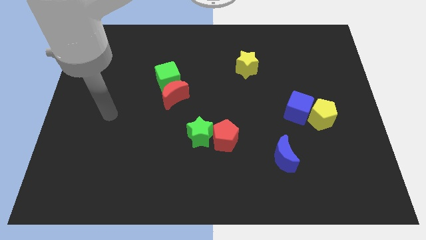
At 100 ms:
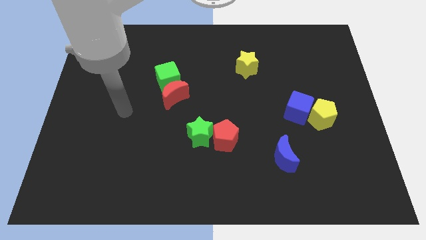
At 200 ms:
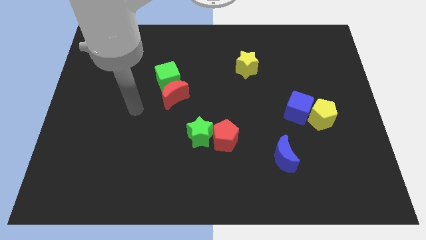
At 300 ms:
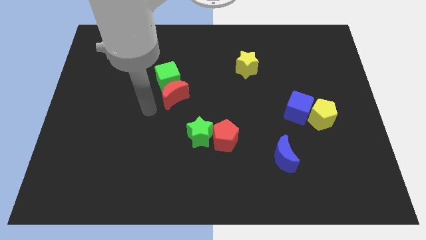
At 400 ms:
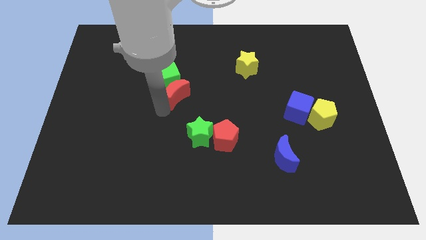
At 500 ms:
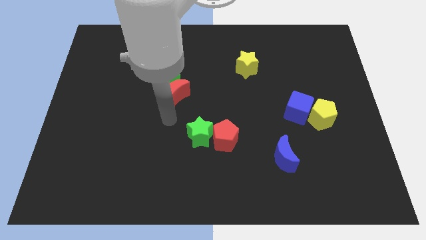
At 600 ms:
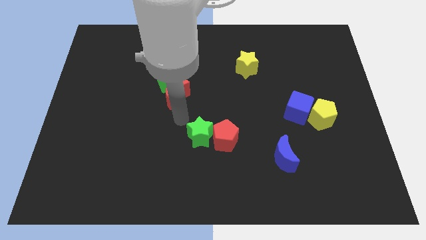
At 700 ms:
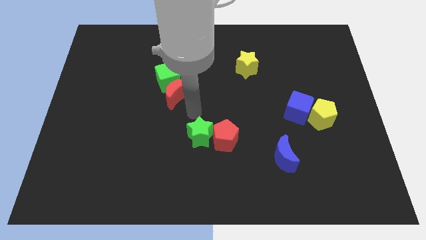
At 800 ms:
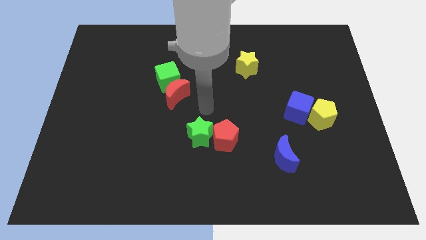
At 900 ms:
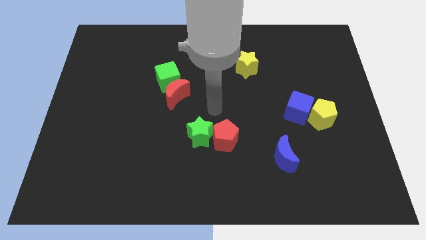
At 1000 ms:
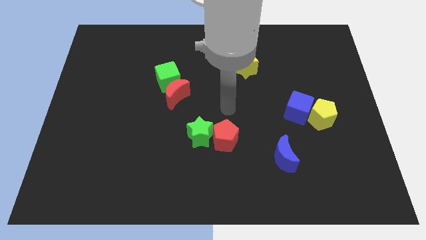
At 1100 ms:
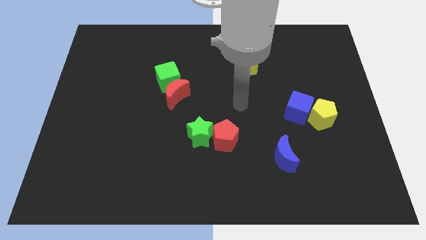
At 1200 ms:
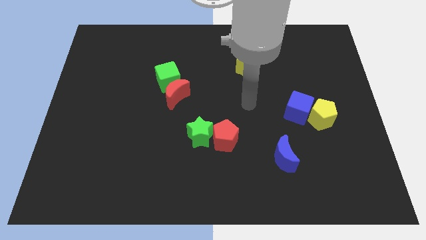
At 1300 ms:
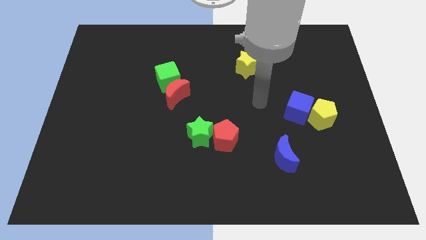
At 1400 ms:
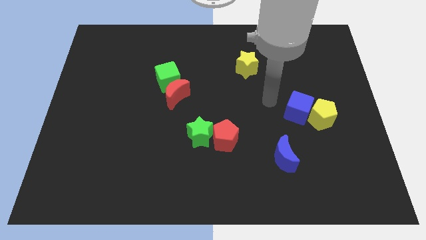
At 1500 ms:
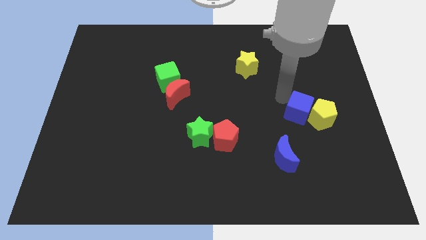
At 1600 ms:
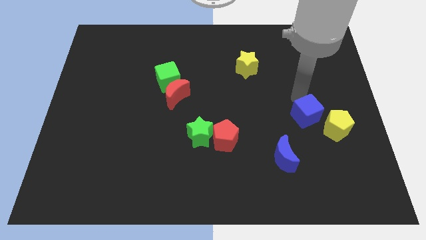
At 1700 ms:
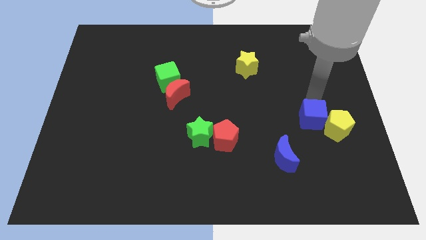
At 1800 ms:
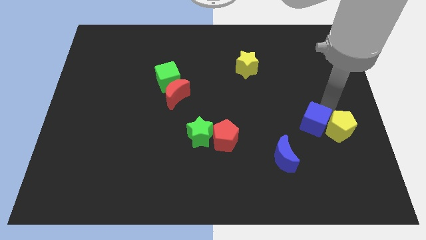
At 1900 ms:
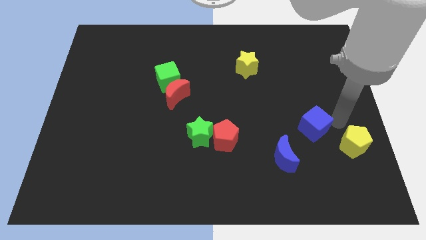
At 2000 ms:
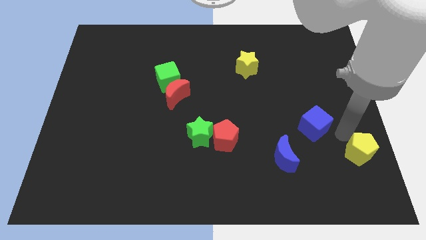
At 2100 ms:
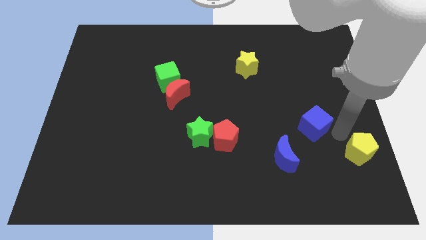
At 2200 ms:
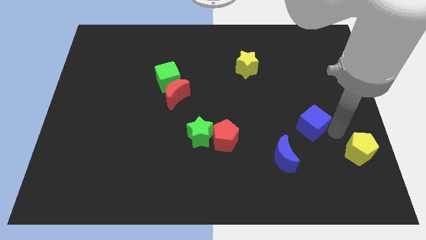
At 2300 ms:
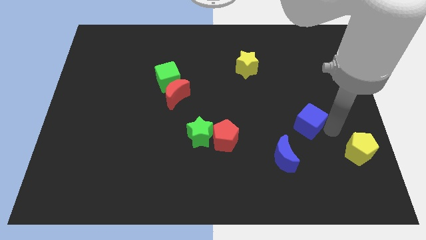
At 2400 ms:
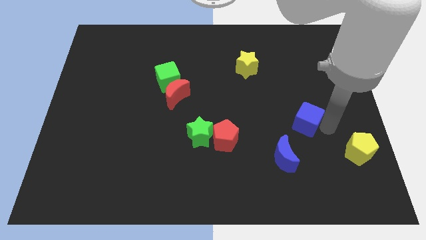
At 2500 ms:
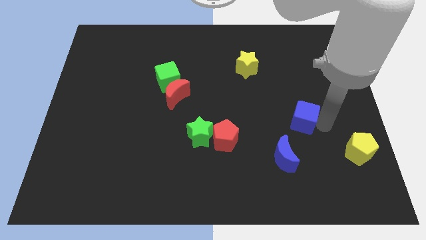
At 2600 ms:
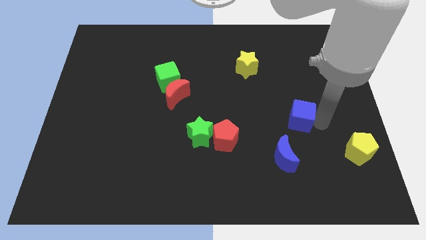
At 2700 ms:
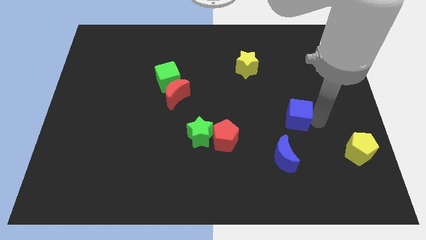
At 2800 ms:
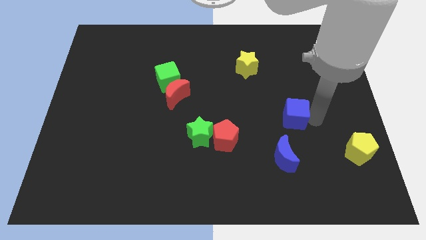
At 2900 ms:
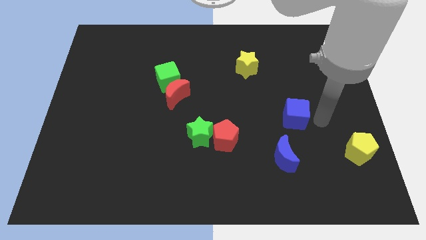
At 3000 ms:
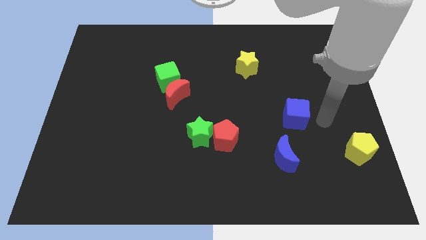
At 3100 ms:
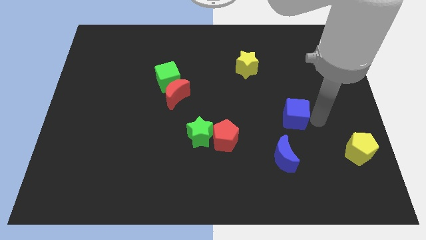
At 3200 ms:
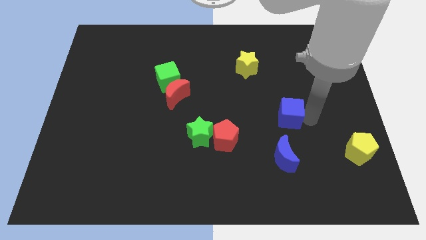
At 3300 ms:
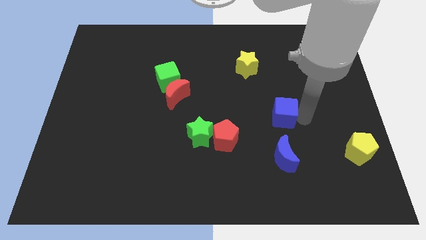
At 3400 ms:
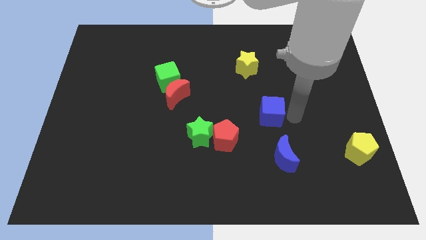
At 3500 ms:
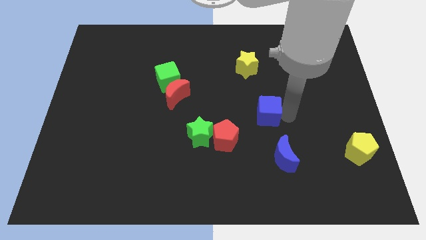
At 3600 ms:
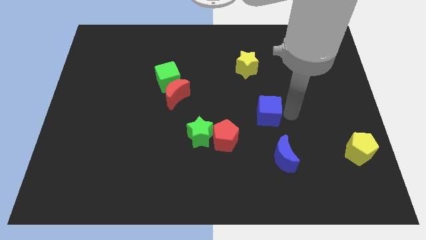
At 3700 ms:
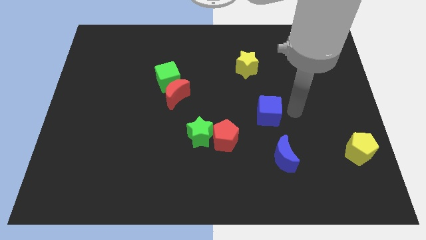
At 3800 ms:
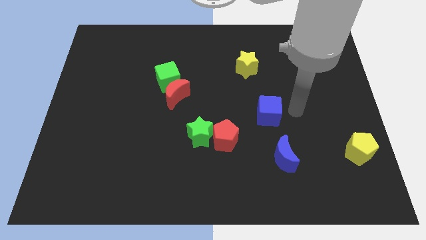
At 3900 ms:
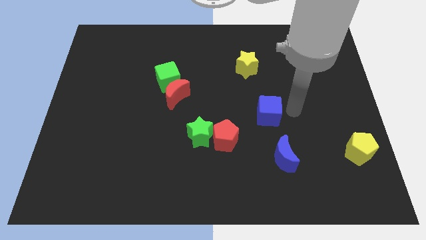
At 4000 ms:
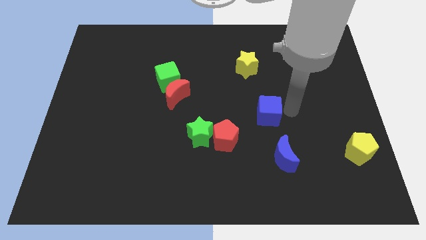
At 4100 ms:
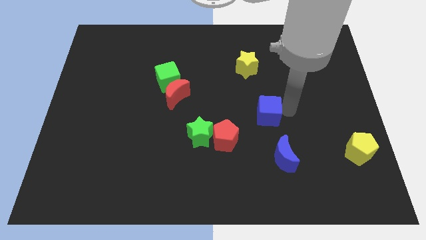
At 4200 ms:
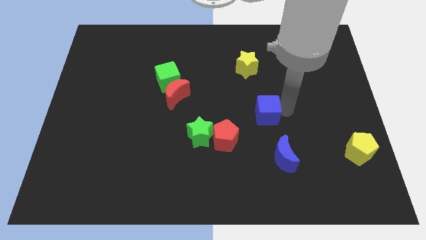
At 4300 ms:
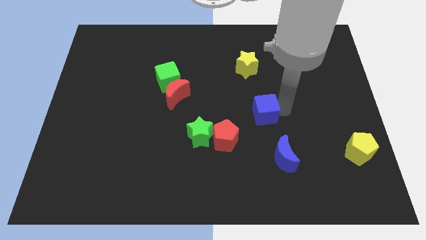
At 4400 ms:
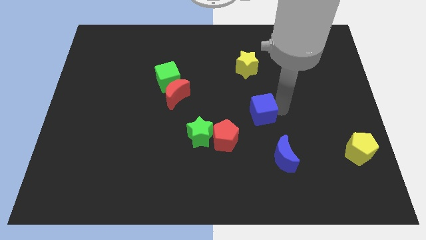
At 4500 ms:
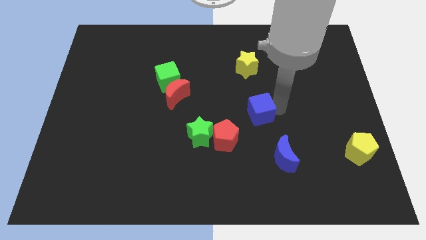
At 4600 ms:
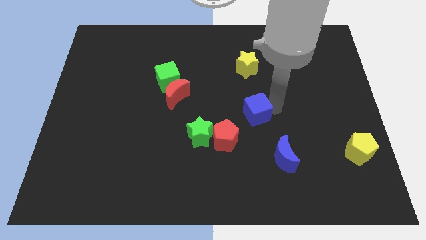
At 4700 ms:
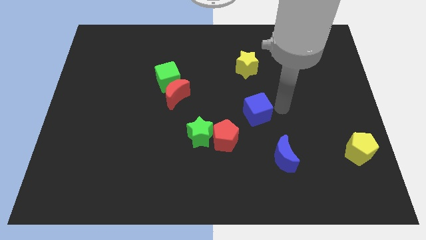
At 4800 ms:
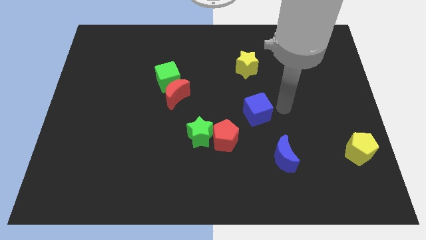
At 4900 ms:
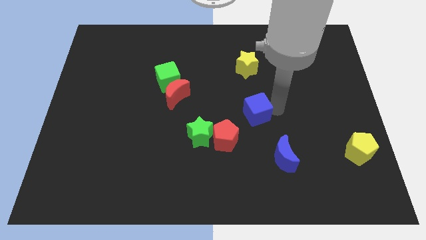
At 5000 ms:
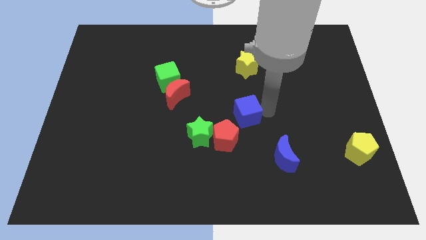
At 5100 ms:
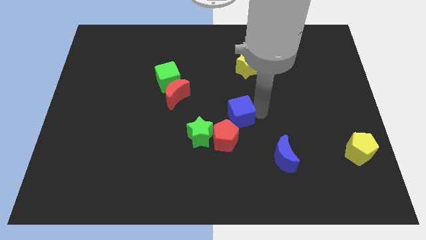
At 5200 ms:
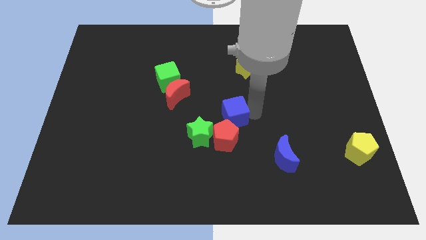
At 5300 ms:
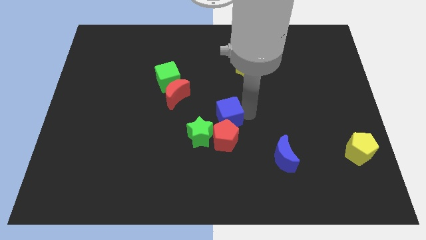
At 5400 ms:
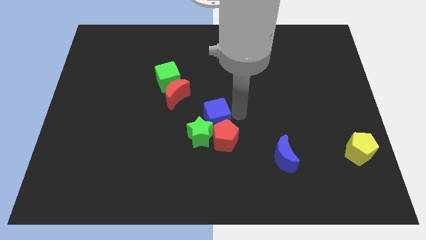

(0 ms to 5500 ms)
put the blue cube close to the green star

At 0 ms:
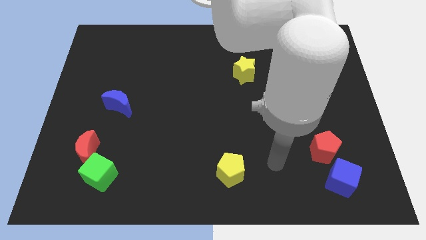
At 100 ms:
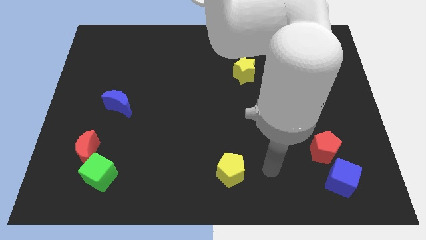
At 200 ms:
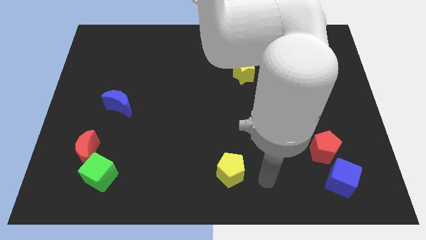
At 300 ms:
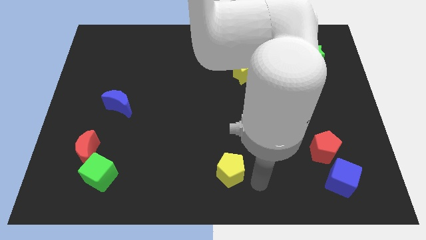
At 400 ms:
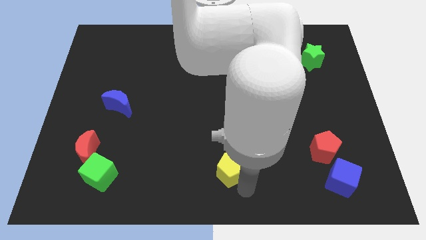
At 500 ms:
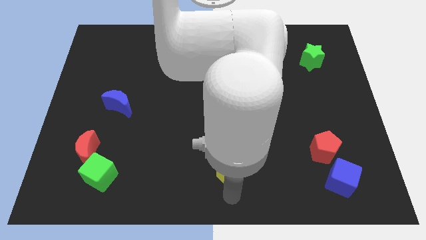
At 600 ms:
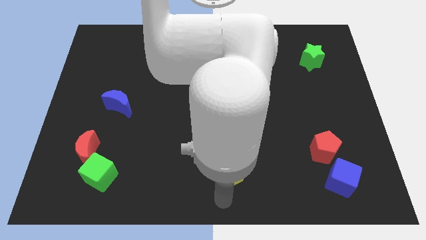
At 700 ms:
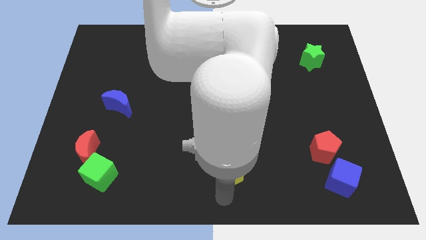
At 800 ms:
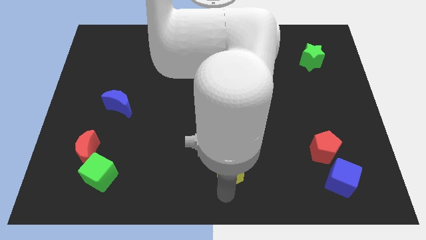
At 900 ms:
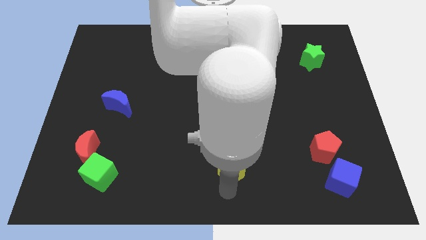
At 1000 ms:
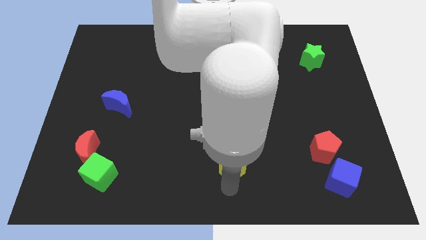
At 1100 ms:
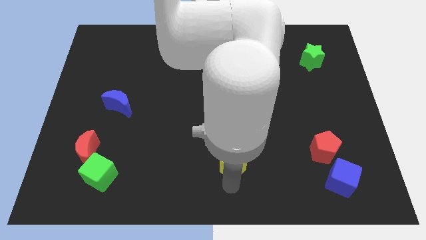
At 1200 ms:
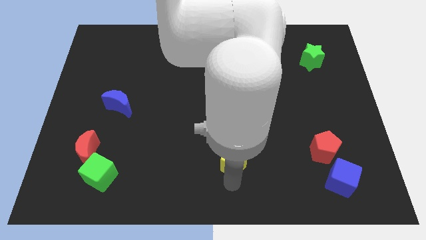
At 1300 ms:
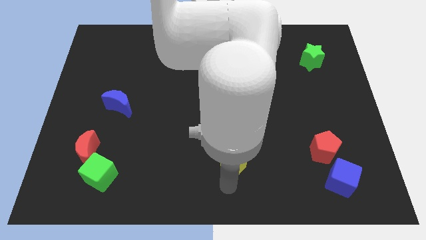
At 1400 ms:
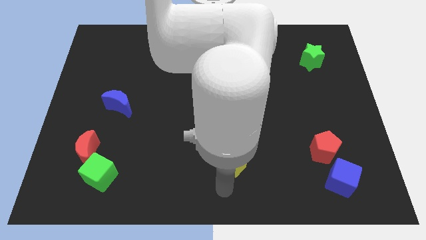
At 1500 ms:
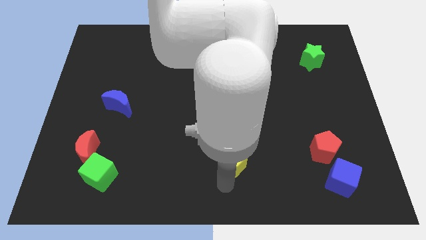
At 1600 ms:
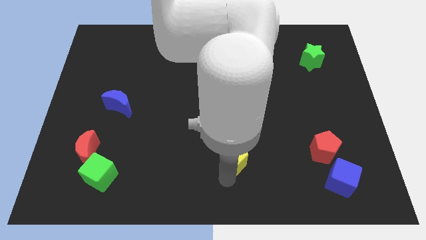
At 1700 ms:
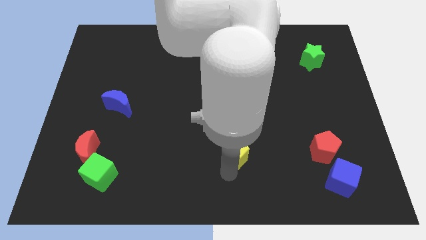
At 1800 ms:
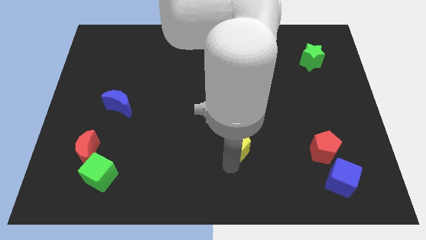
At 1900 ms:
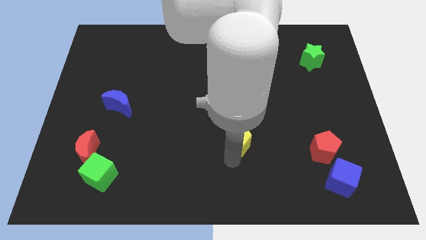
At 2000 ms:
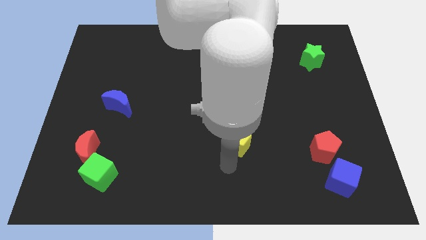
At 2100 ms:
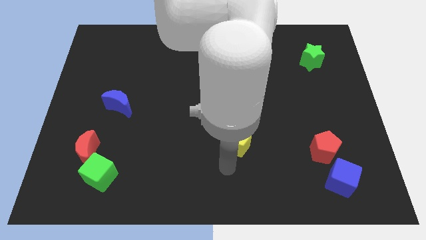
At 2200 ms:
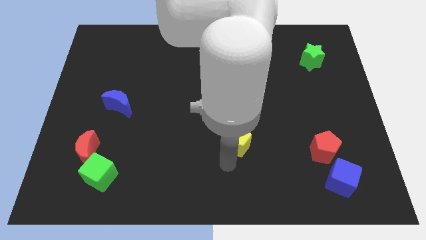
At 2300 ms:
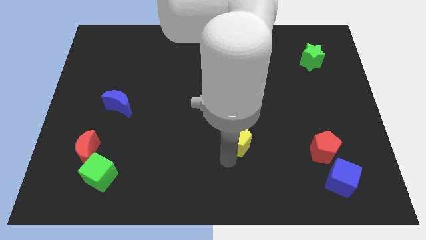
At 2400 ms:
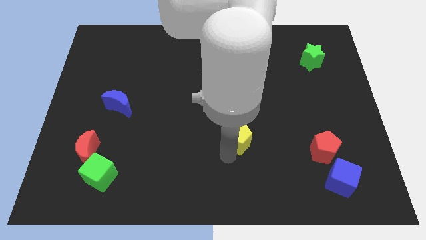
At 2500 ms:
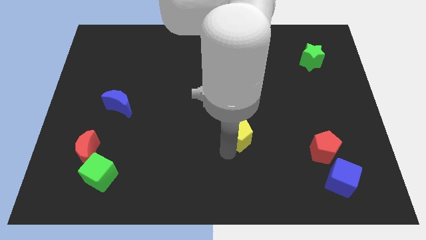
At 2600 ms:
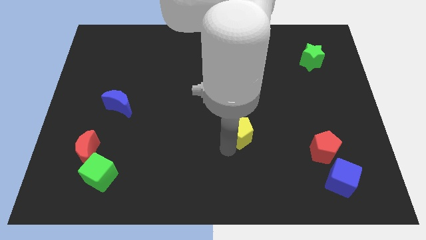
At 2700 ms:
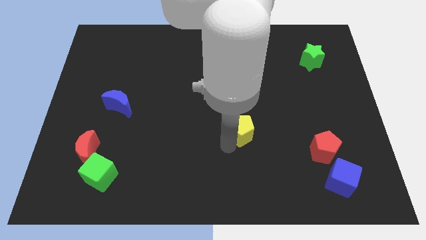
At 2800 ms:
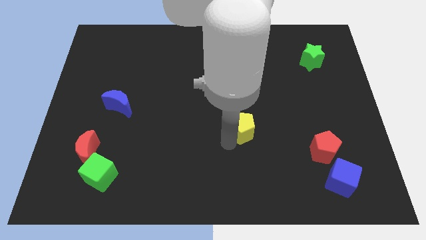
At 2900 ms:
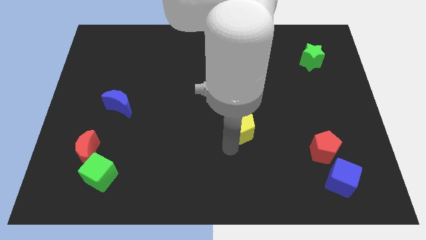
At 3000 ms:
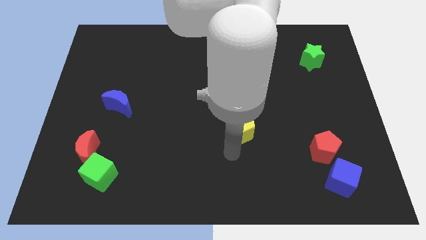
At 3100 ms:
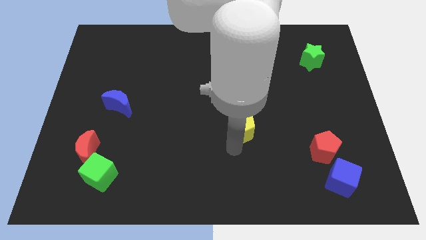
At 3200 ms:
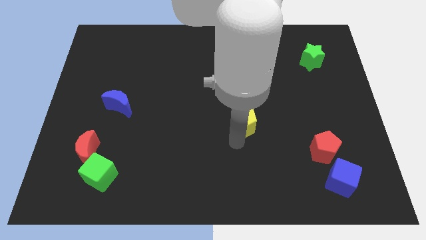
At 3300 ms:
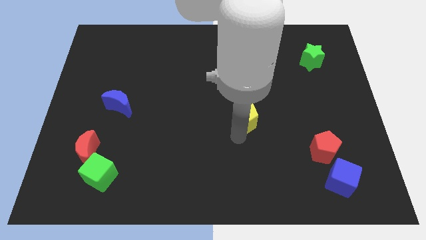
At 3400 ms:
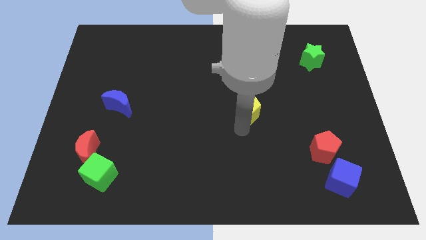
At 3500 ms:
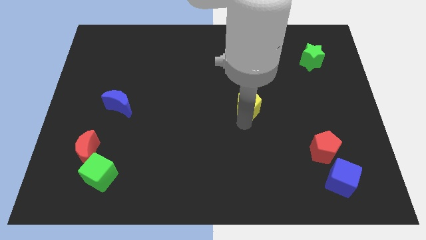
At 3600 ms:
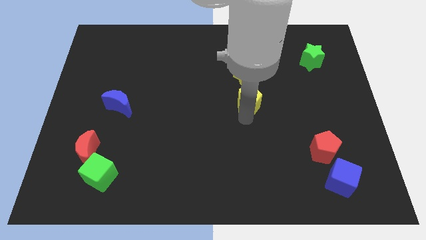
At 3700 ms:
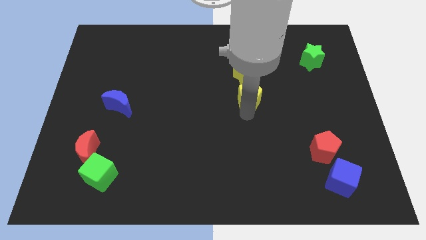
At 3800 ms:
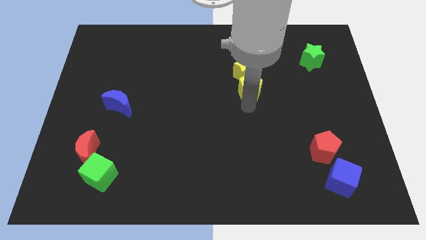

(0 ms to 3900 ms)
move the yellow pentagon towards the yellow star
